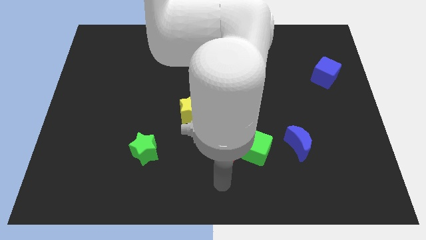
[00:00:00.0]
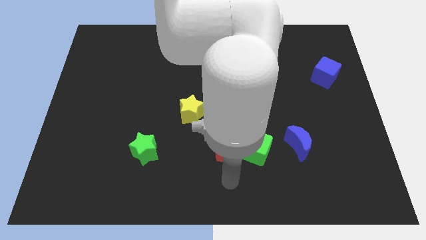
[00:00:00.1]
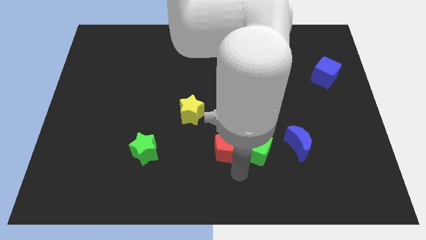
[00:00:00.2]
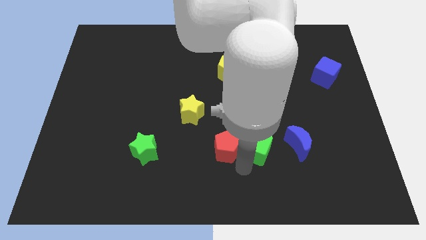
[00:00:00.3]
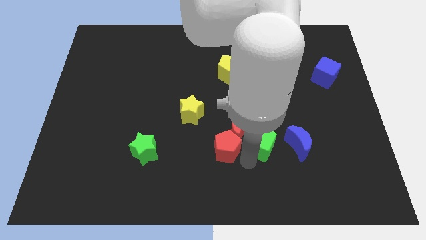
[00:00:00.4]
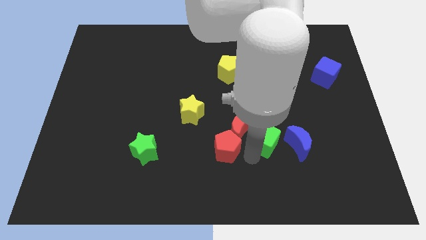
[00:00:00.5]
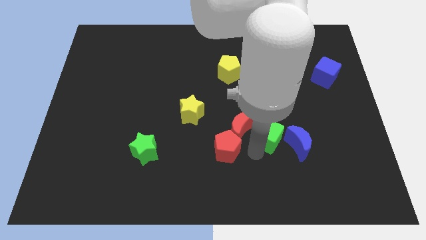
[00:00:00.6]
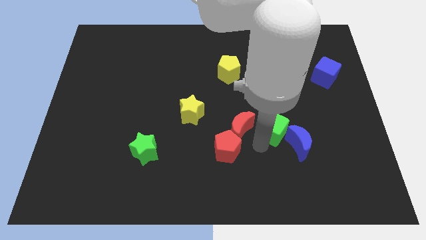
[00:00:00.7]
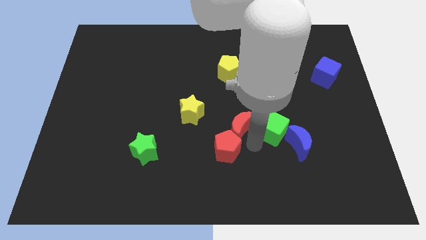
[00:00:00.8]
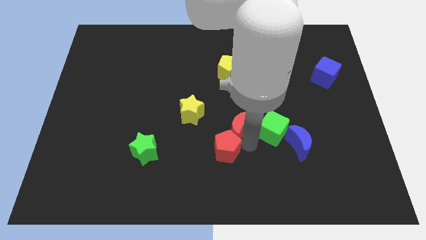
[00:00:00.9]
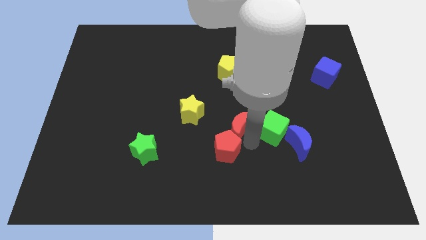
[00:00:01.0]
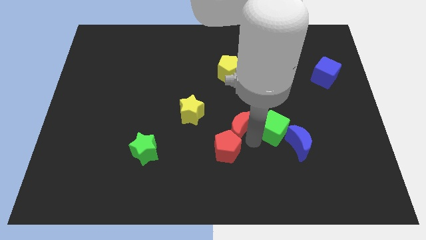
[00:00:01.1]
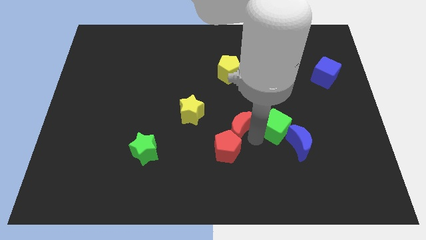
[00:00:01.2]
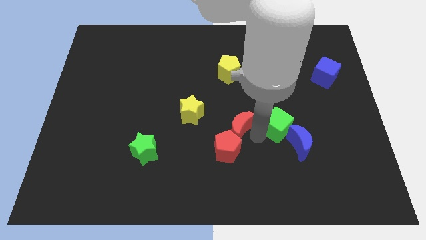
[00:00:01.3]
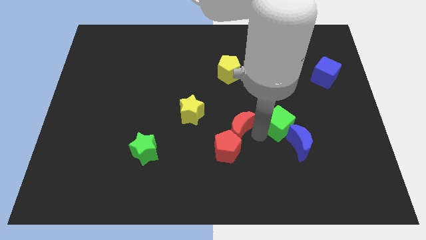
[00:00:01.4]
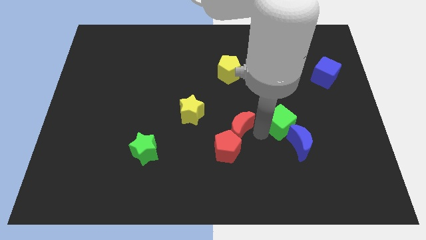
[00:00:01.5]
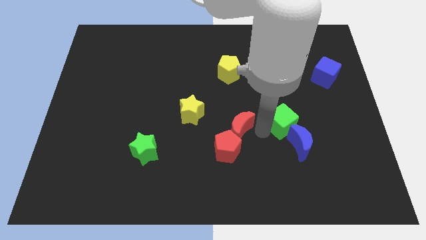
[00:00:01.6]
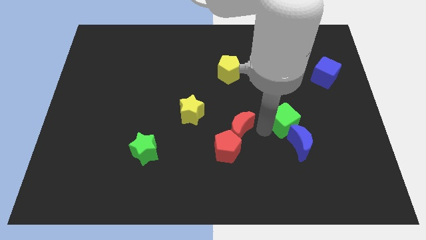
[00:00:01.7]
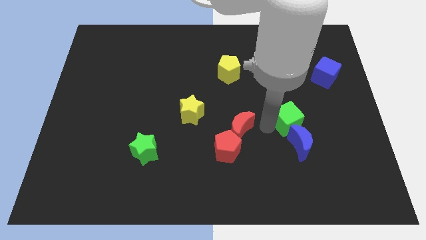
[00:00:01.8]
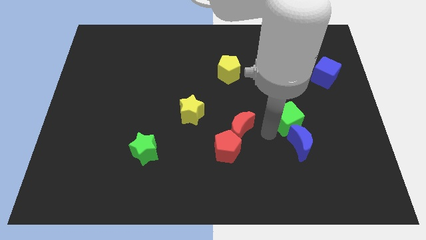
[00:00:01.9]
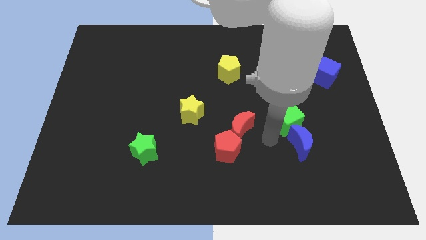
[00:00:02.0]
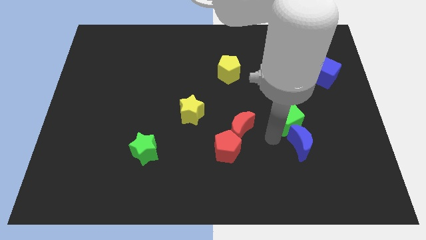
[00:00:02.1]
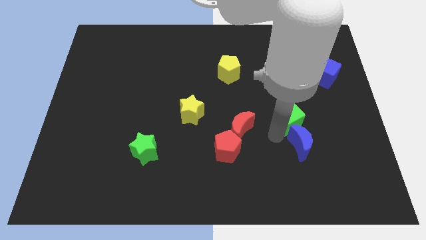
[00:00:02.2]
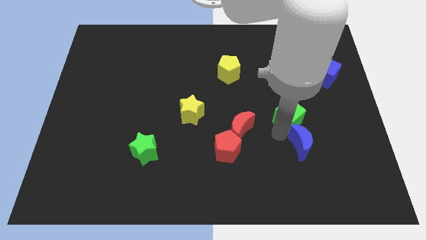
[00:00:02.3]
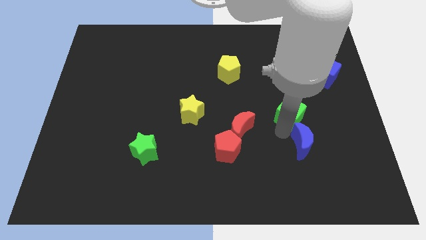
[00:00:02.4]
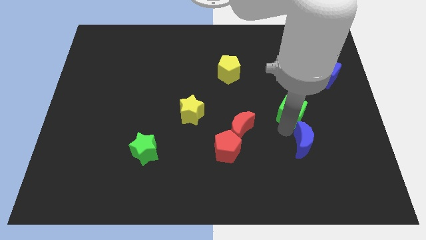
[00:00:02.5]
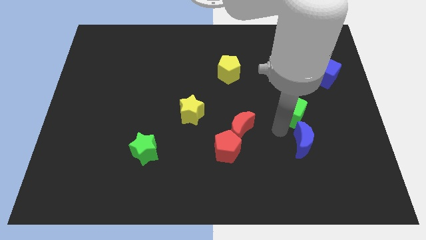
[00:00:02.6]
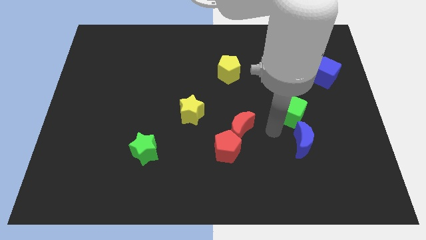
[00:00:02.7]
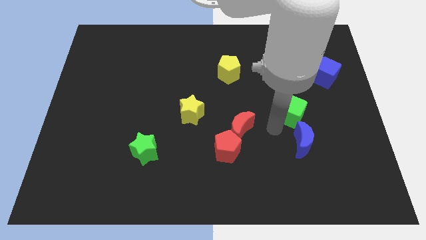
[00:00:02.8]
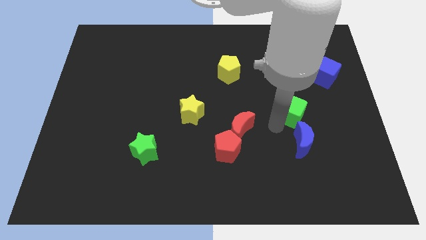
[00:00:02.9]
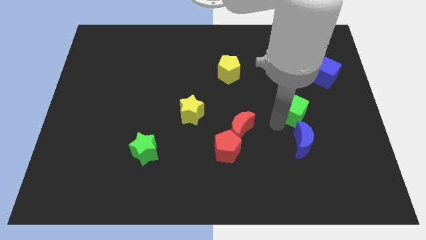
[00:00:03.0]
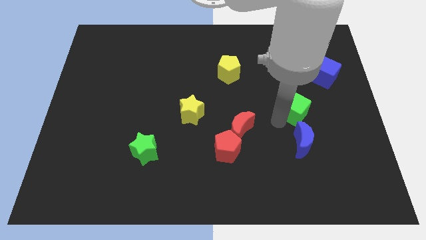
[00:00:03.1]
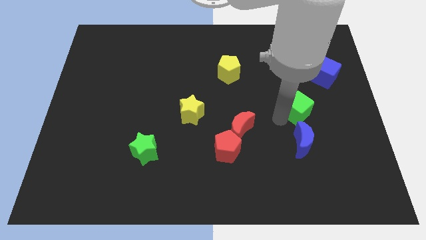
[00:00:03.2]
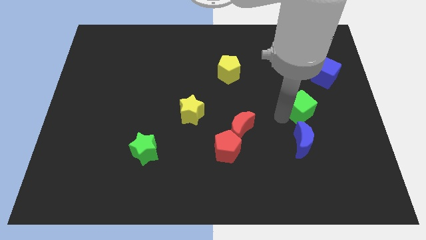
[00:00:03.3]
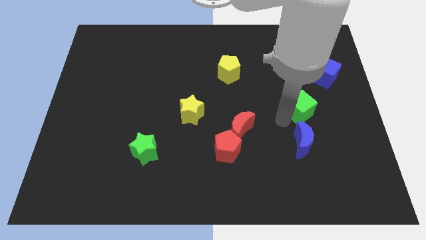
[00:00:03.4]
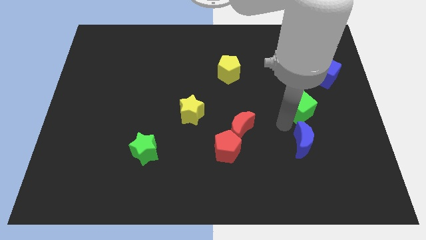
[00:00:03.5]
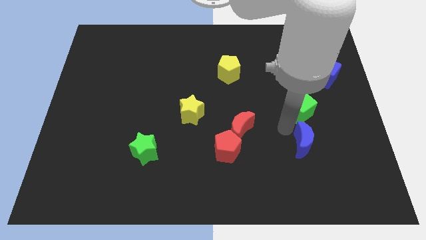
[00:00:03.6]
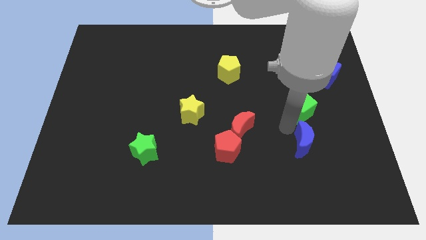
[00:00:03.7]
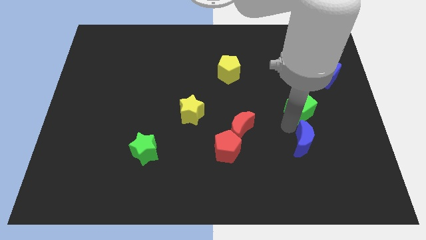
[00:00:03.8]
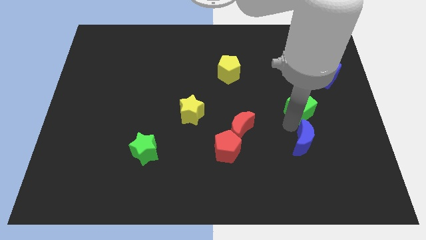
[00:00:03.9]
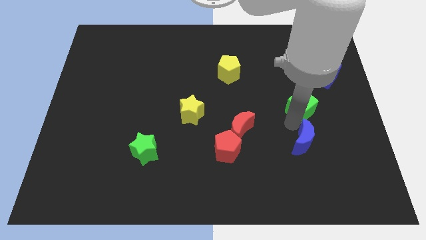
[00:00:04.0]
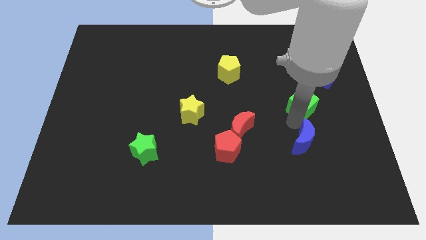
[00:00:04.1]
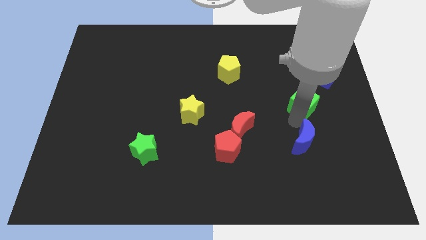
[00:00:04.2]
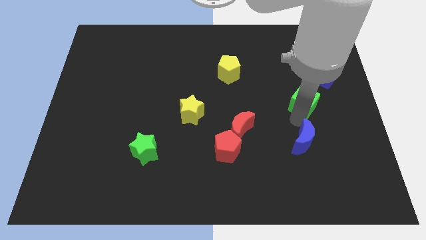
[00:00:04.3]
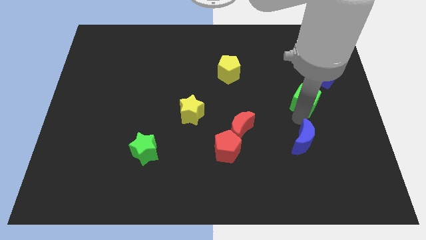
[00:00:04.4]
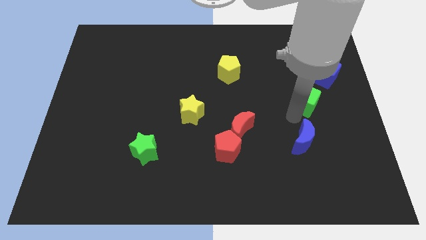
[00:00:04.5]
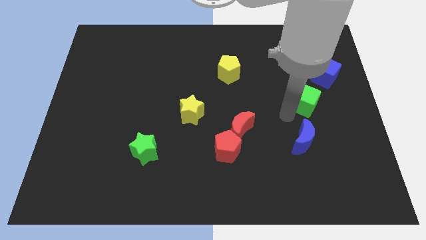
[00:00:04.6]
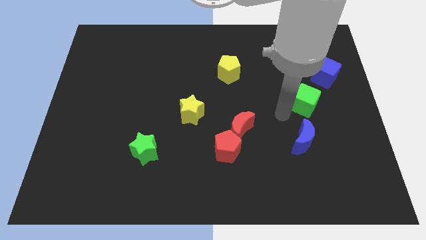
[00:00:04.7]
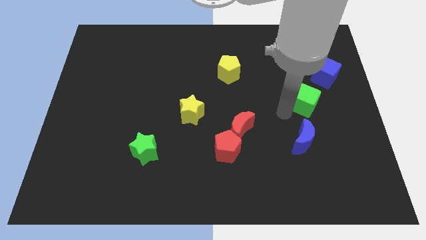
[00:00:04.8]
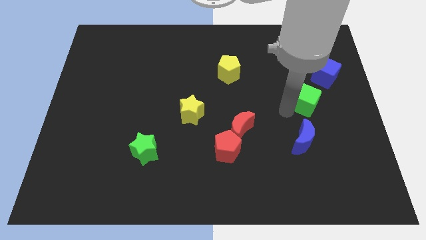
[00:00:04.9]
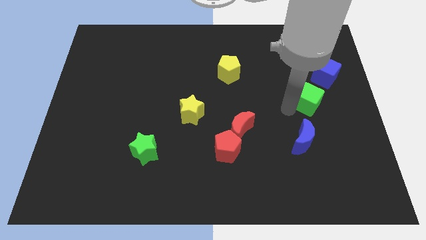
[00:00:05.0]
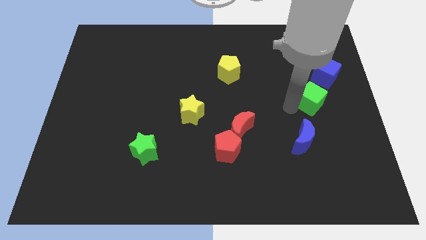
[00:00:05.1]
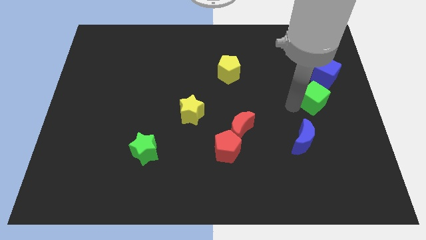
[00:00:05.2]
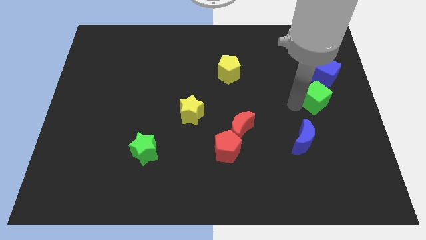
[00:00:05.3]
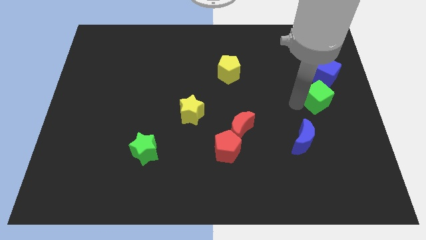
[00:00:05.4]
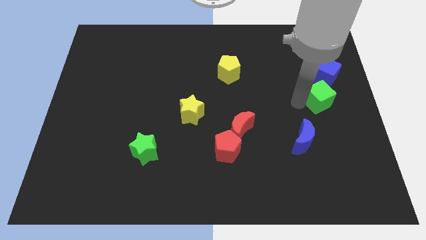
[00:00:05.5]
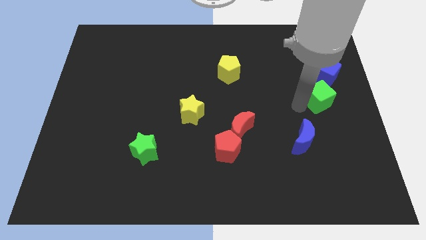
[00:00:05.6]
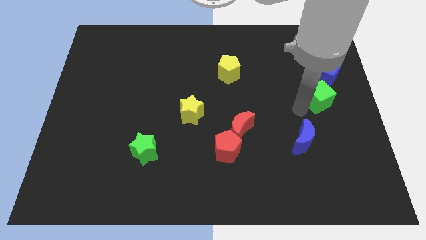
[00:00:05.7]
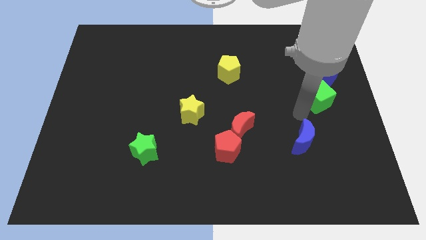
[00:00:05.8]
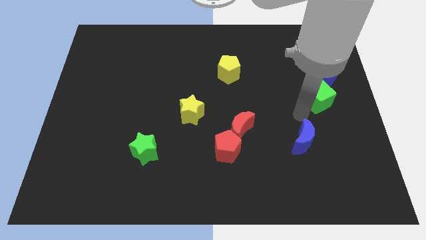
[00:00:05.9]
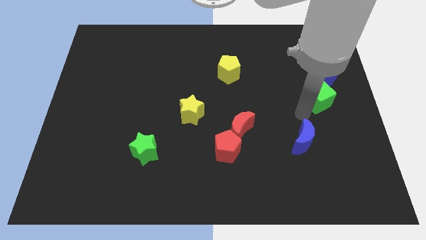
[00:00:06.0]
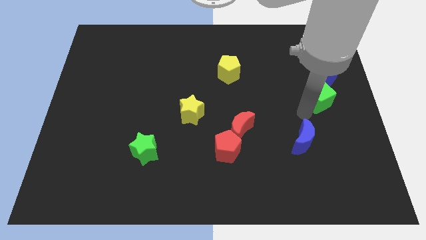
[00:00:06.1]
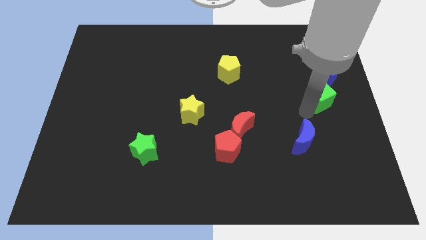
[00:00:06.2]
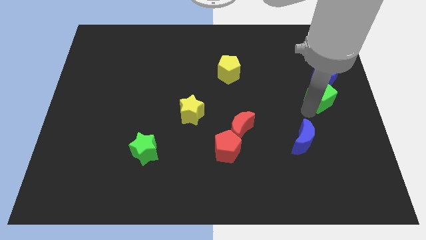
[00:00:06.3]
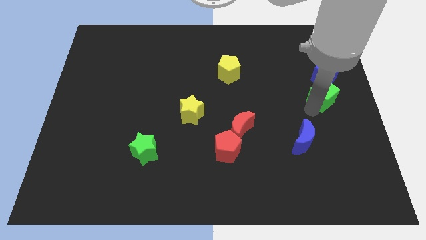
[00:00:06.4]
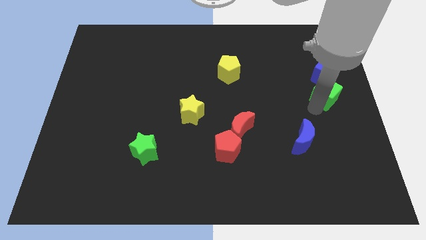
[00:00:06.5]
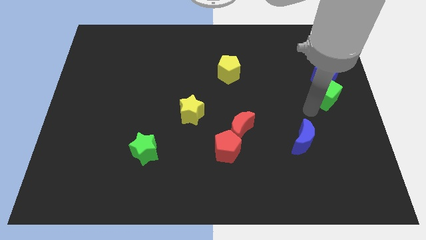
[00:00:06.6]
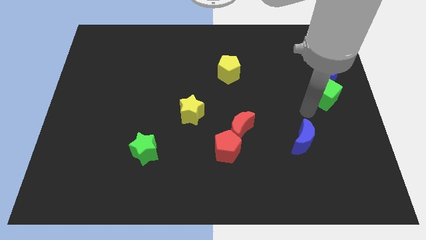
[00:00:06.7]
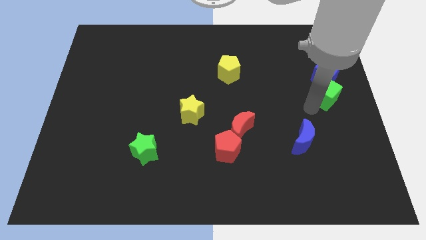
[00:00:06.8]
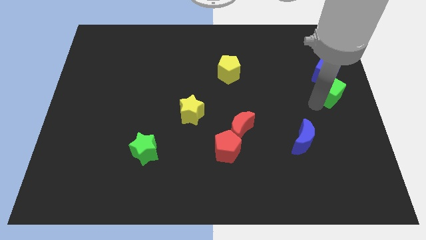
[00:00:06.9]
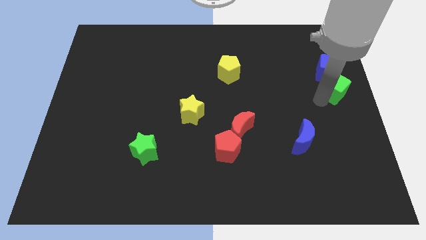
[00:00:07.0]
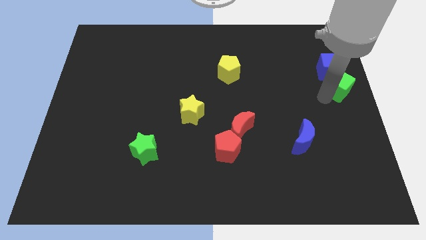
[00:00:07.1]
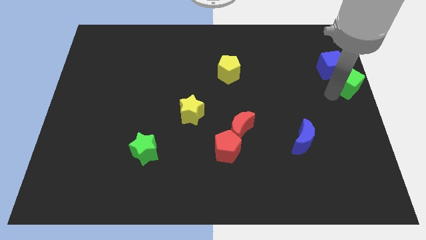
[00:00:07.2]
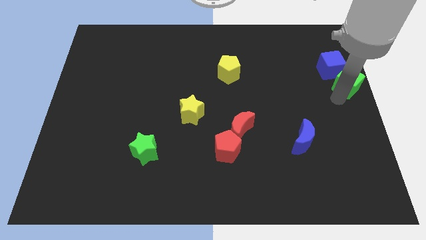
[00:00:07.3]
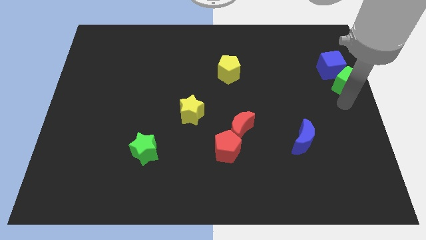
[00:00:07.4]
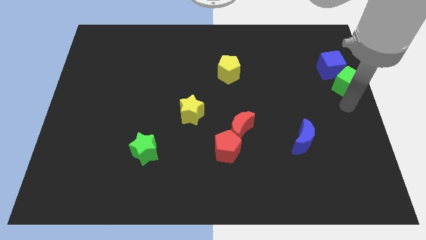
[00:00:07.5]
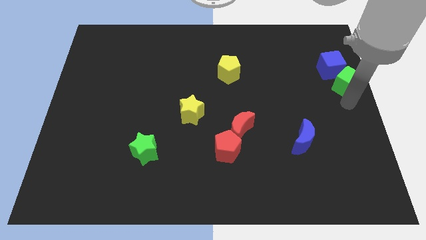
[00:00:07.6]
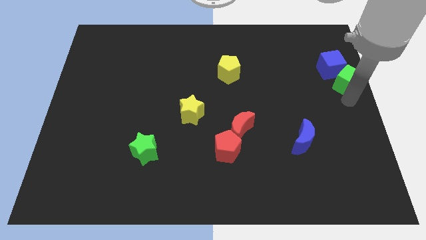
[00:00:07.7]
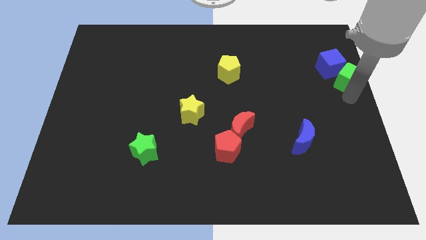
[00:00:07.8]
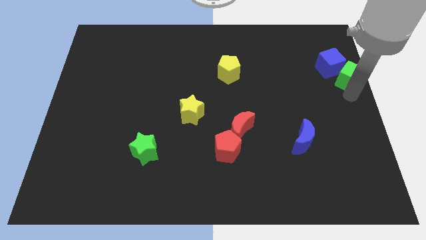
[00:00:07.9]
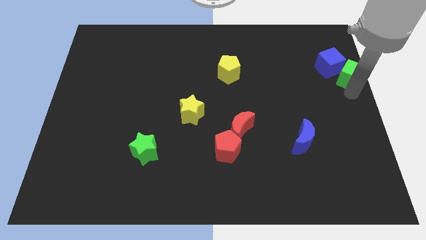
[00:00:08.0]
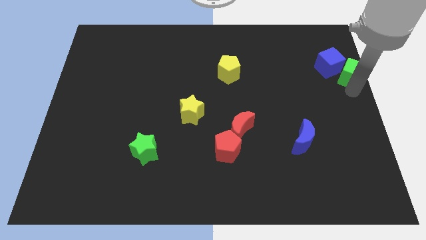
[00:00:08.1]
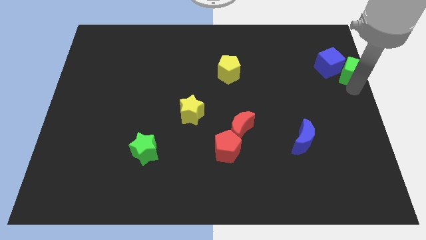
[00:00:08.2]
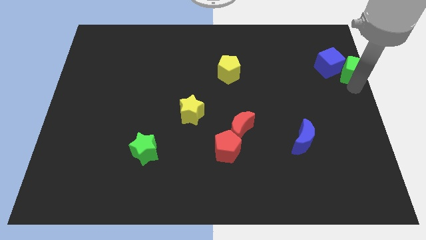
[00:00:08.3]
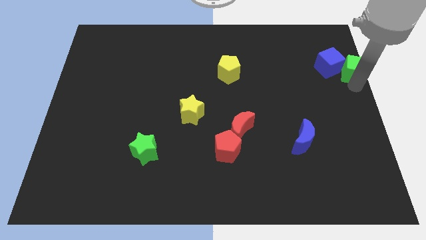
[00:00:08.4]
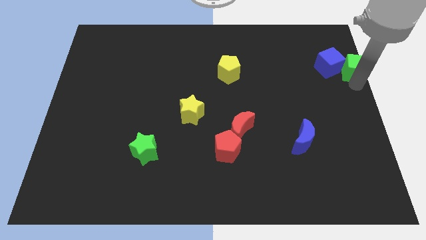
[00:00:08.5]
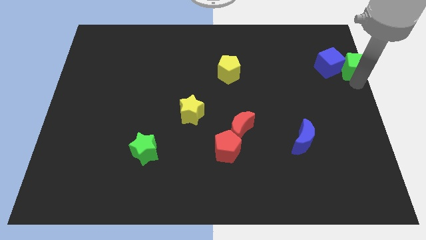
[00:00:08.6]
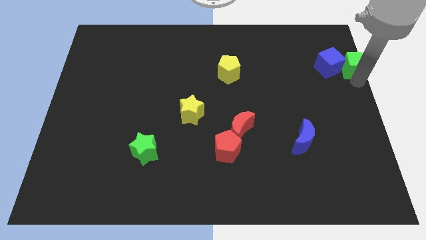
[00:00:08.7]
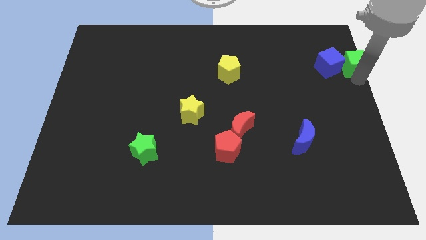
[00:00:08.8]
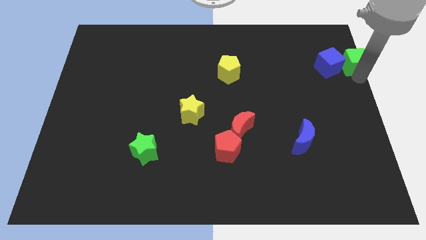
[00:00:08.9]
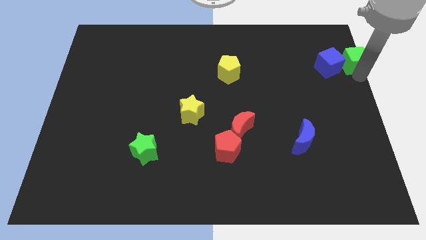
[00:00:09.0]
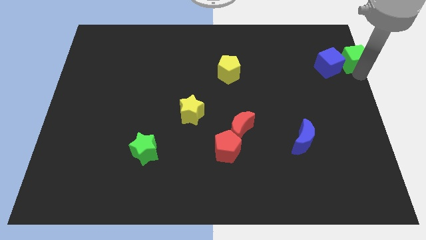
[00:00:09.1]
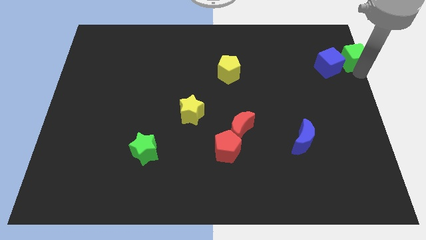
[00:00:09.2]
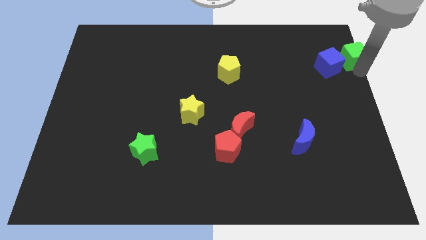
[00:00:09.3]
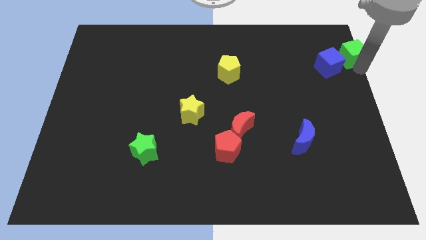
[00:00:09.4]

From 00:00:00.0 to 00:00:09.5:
move the green cube to the top right of the board
